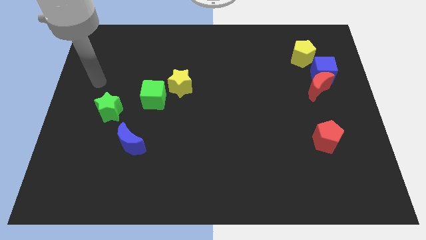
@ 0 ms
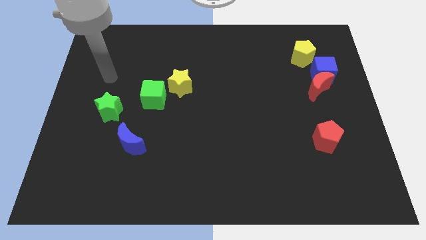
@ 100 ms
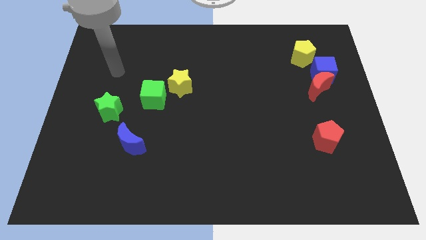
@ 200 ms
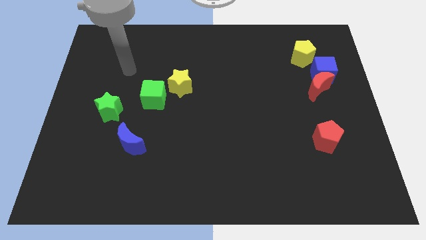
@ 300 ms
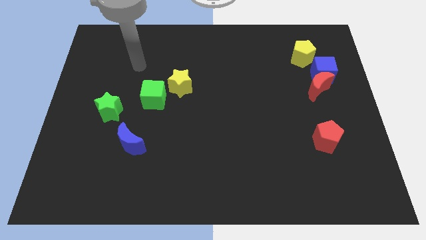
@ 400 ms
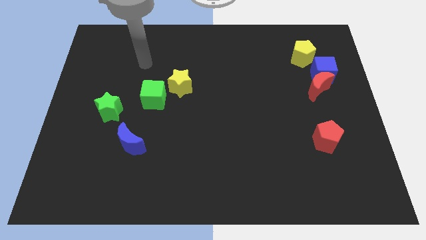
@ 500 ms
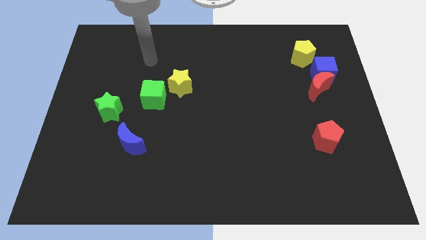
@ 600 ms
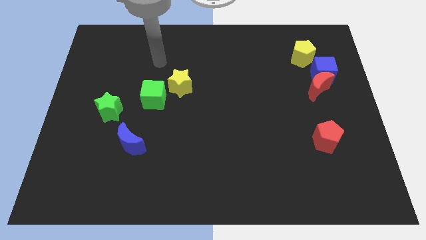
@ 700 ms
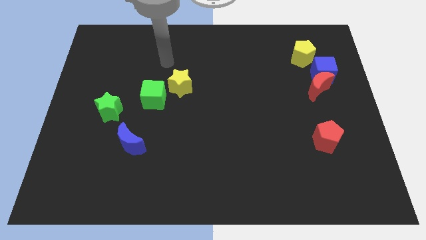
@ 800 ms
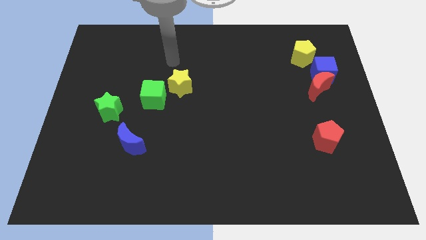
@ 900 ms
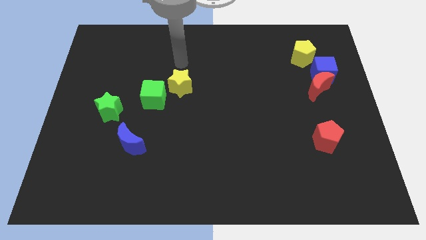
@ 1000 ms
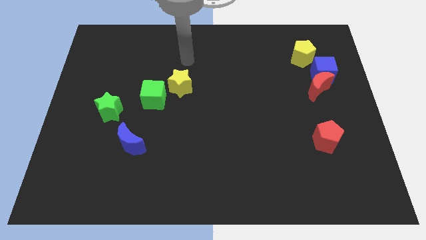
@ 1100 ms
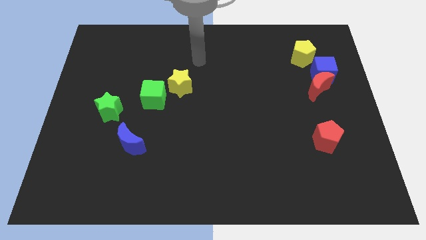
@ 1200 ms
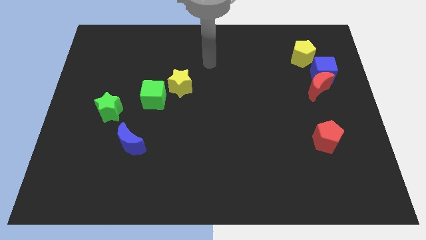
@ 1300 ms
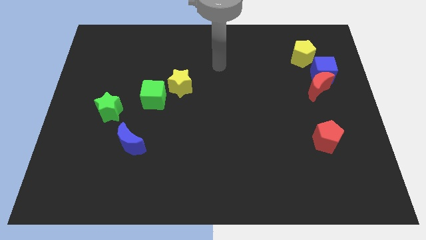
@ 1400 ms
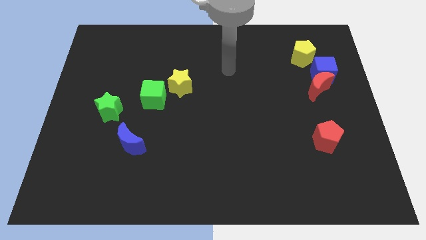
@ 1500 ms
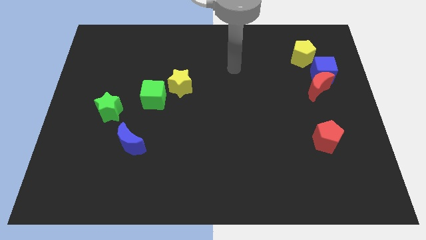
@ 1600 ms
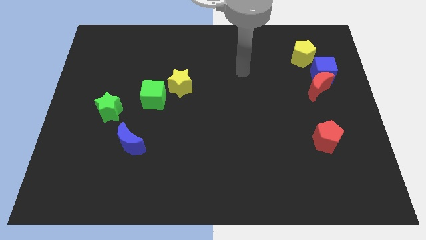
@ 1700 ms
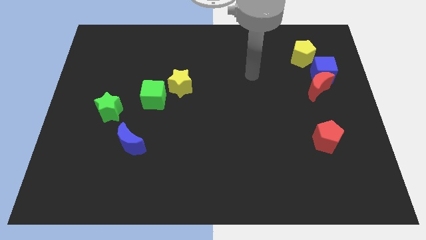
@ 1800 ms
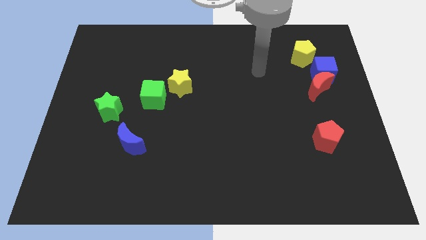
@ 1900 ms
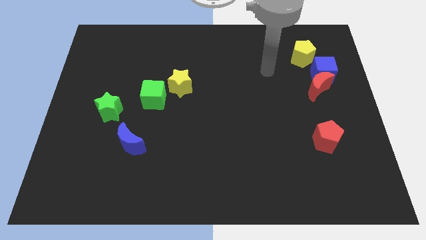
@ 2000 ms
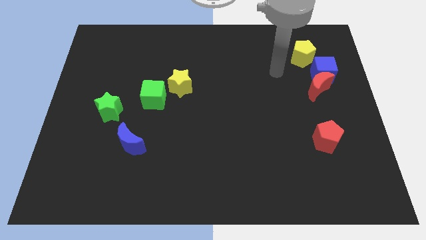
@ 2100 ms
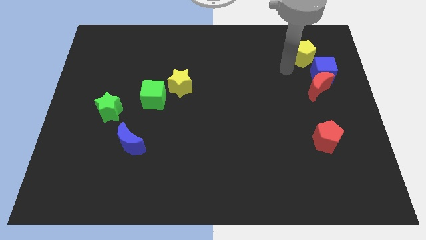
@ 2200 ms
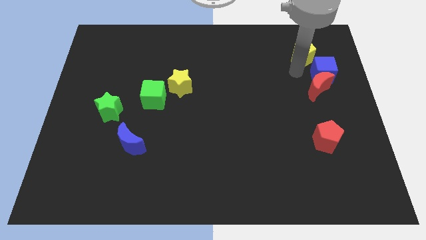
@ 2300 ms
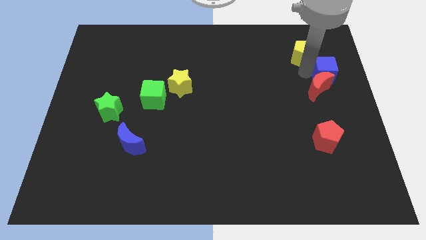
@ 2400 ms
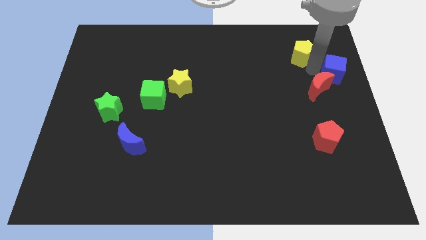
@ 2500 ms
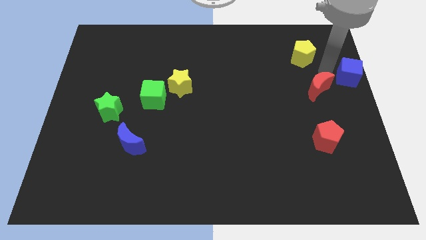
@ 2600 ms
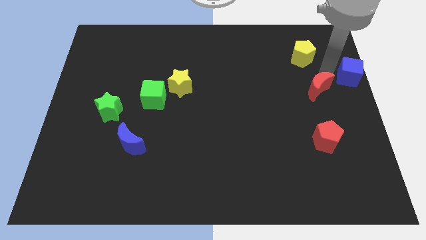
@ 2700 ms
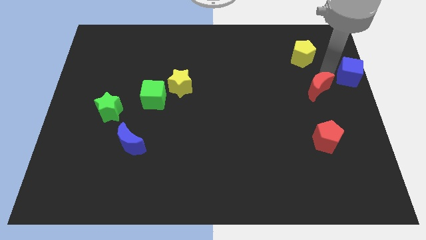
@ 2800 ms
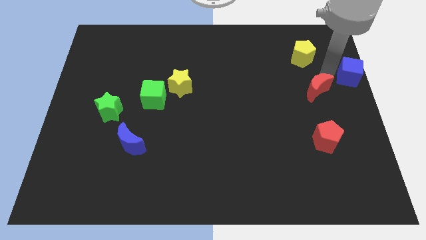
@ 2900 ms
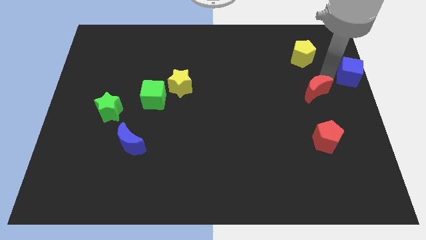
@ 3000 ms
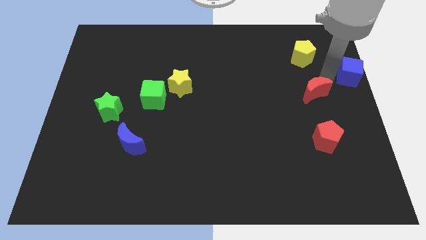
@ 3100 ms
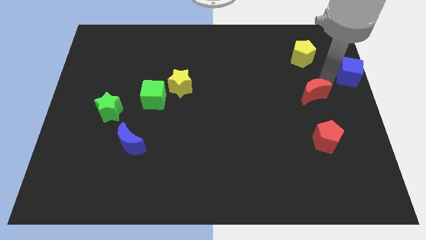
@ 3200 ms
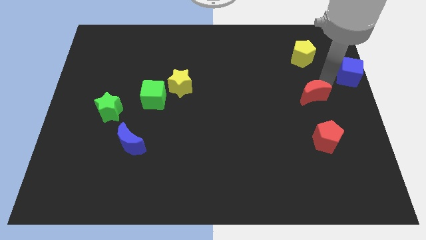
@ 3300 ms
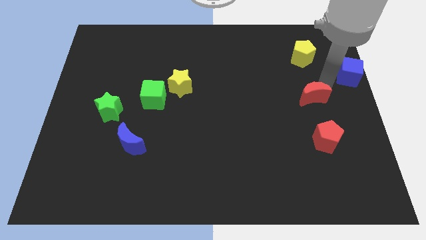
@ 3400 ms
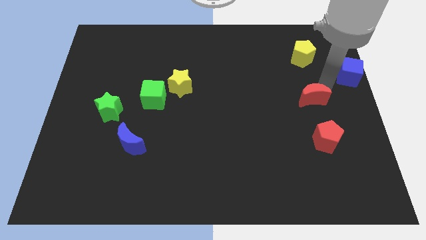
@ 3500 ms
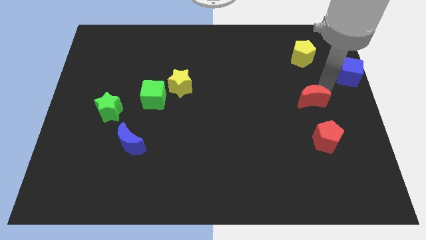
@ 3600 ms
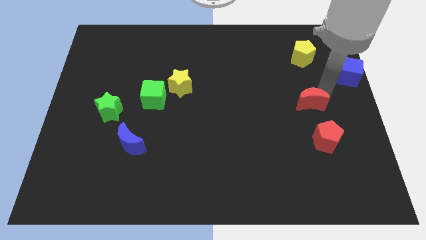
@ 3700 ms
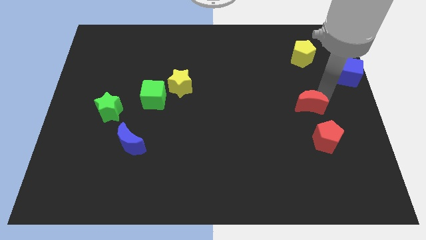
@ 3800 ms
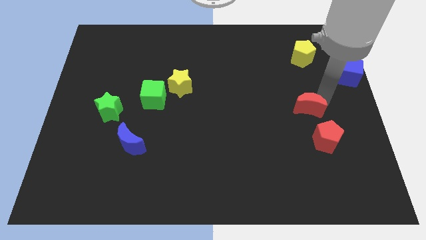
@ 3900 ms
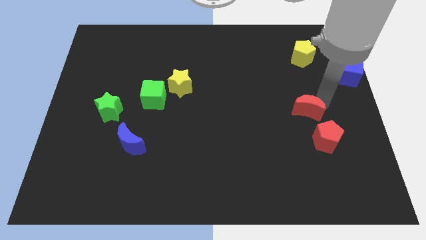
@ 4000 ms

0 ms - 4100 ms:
push the red moon downwards and then to the left a bit

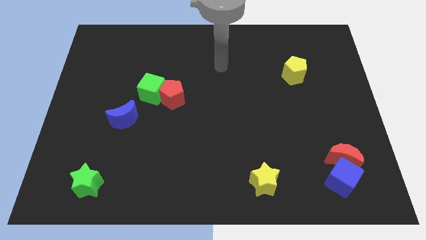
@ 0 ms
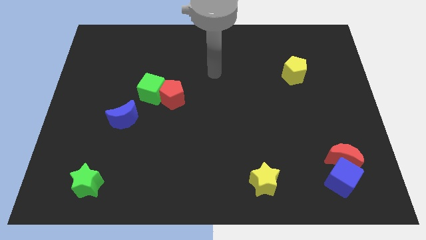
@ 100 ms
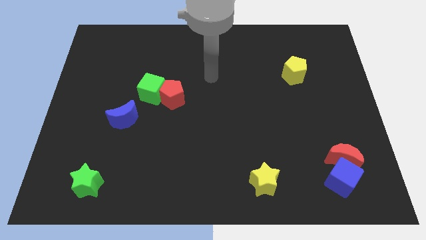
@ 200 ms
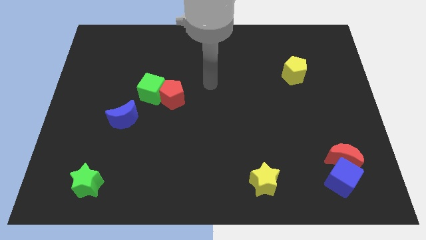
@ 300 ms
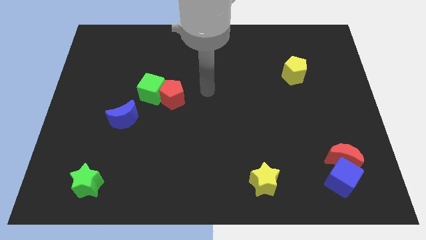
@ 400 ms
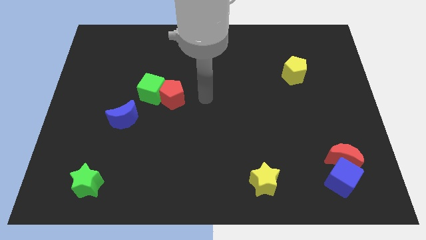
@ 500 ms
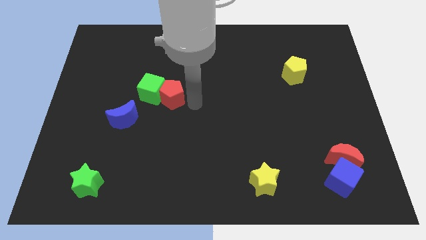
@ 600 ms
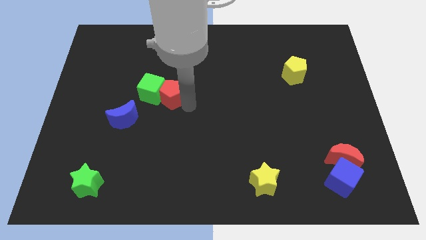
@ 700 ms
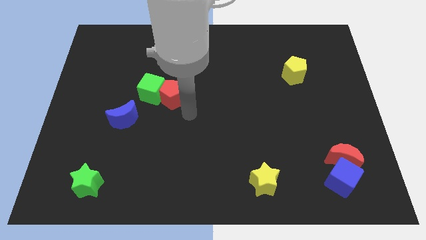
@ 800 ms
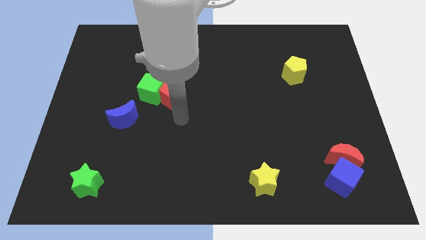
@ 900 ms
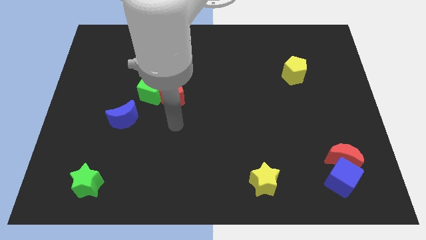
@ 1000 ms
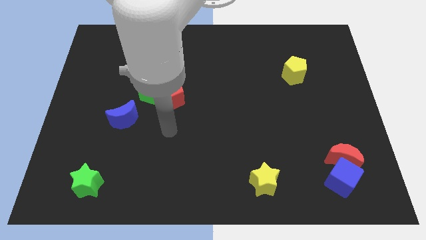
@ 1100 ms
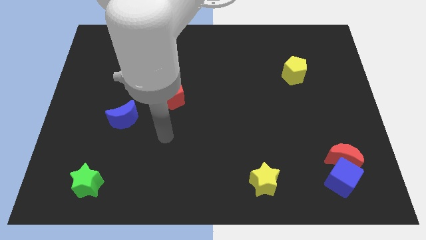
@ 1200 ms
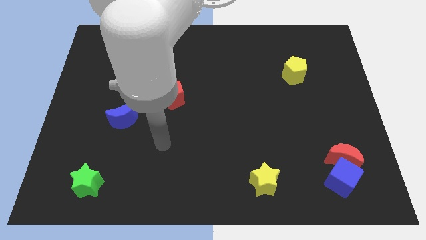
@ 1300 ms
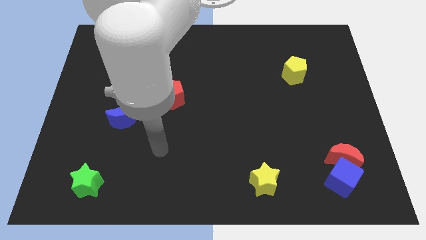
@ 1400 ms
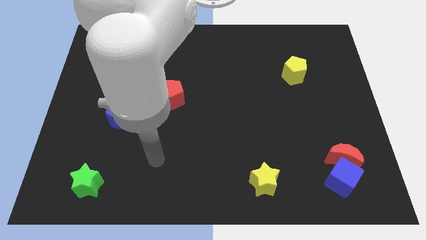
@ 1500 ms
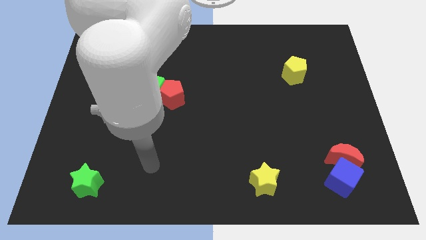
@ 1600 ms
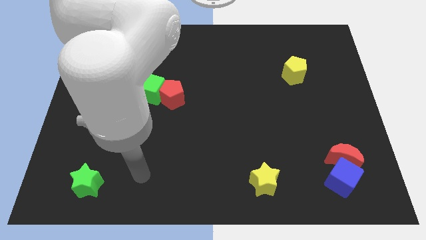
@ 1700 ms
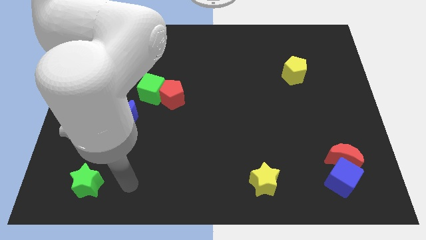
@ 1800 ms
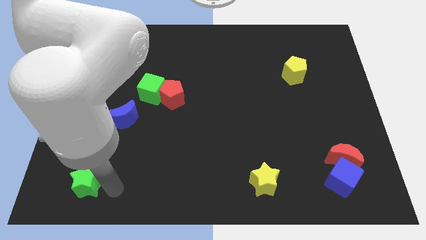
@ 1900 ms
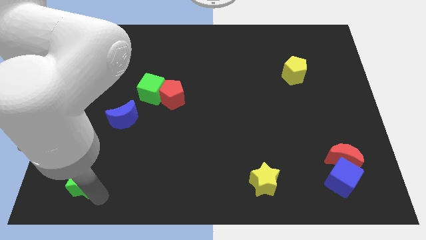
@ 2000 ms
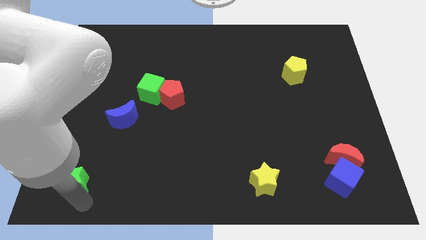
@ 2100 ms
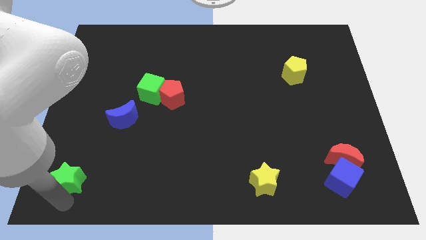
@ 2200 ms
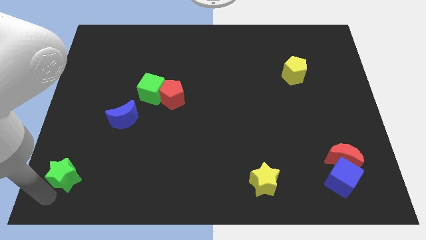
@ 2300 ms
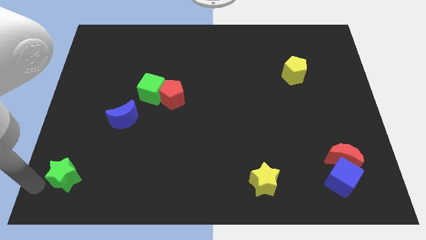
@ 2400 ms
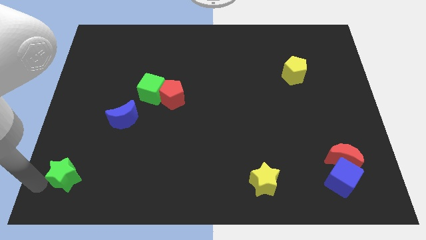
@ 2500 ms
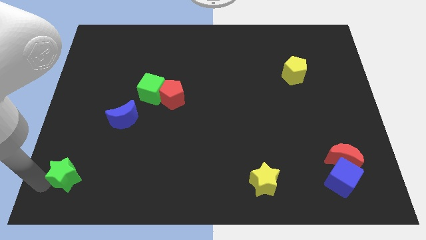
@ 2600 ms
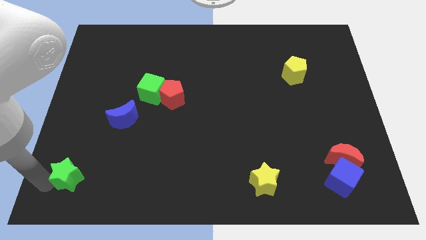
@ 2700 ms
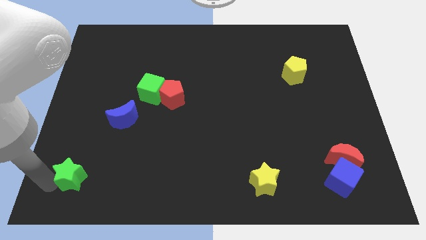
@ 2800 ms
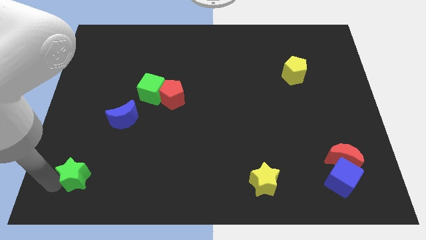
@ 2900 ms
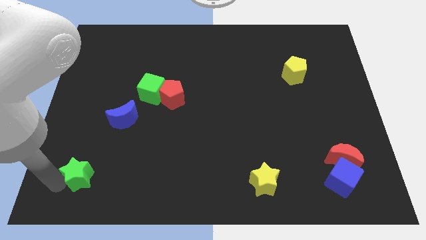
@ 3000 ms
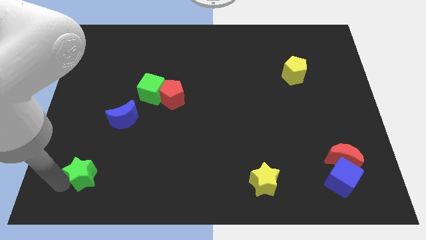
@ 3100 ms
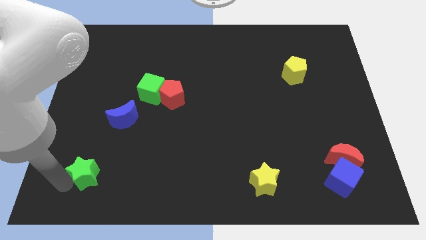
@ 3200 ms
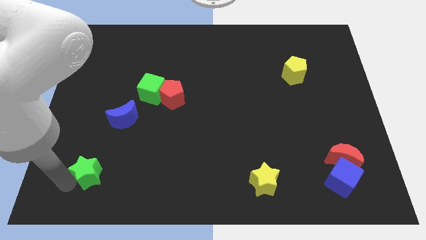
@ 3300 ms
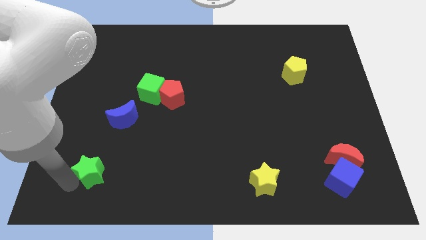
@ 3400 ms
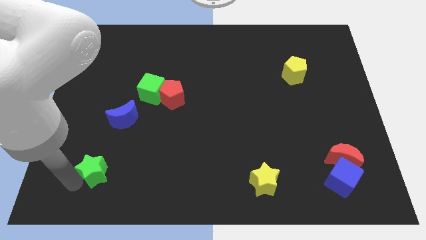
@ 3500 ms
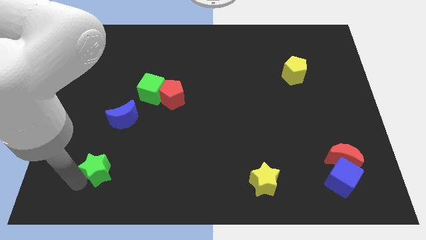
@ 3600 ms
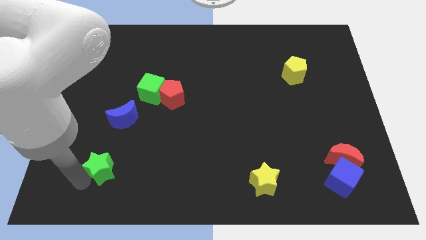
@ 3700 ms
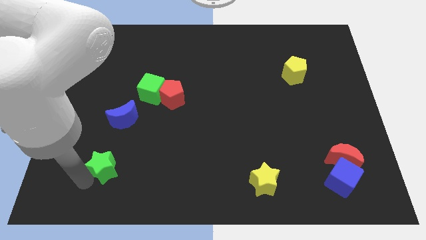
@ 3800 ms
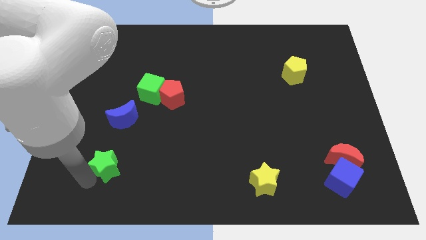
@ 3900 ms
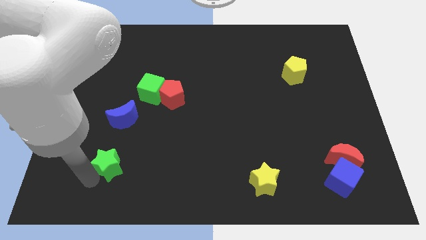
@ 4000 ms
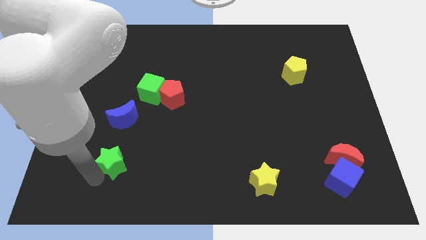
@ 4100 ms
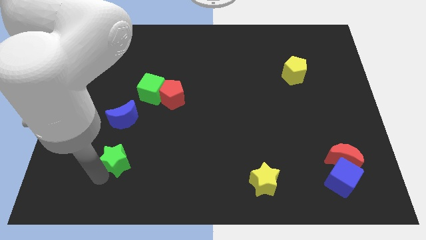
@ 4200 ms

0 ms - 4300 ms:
move the green star a little diagonally upwards and right
